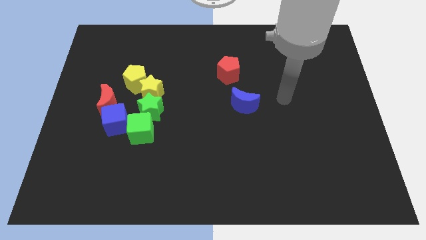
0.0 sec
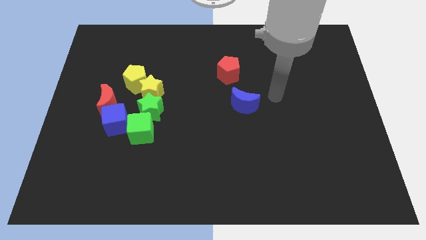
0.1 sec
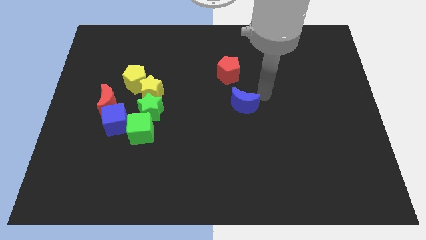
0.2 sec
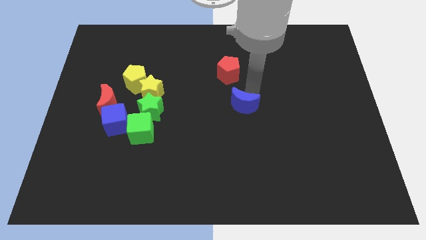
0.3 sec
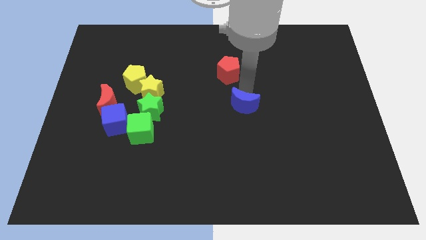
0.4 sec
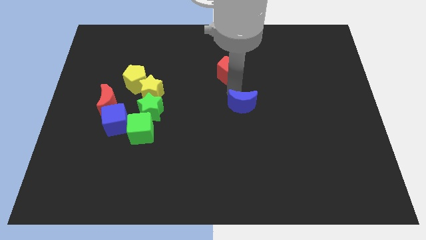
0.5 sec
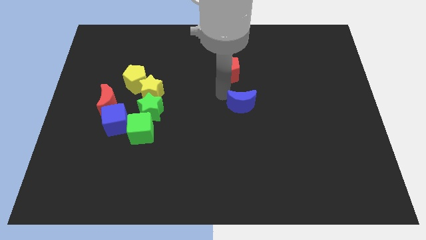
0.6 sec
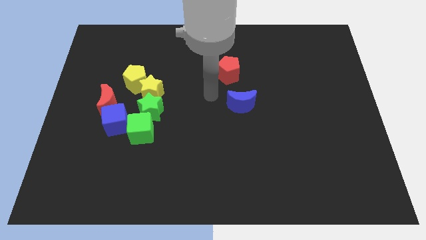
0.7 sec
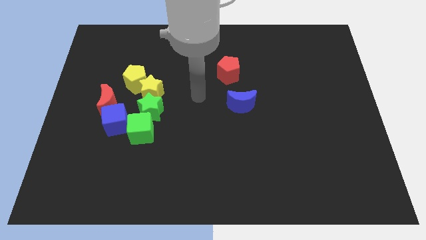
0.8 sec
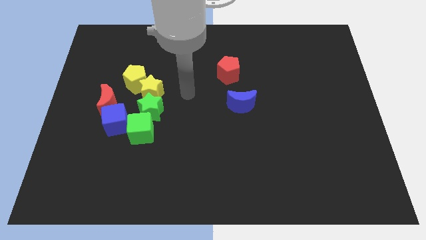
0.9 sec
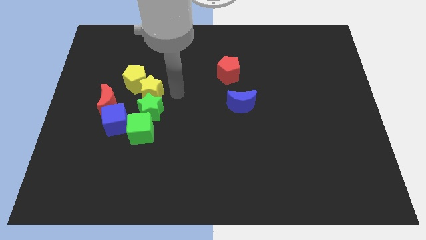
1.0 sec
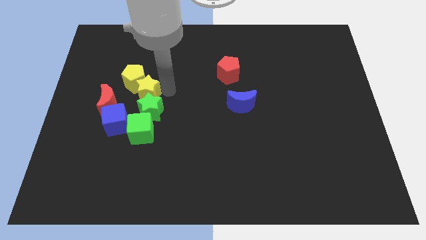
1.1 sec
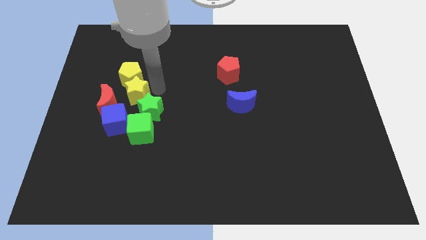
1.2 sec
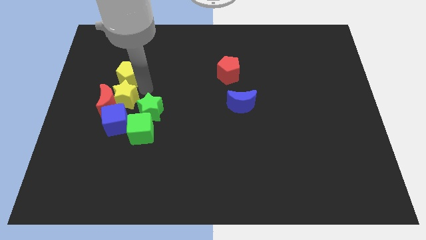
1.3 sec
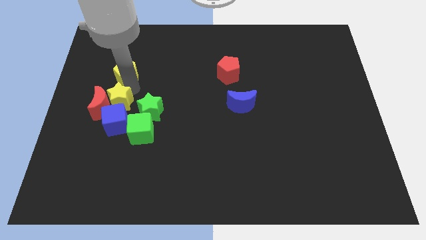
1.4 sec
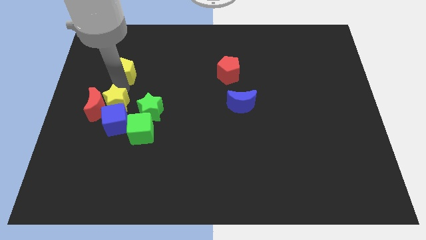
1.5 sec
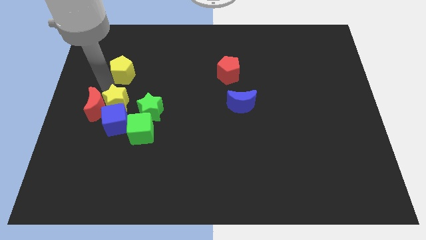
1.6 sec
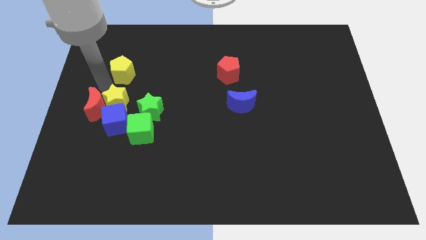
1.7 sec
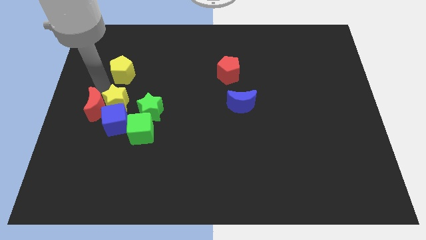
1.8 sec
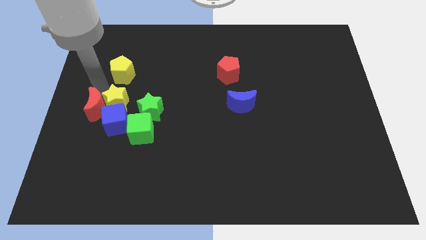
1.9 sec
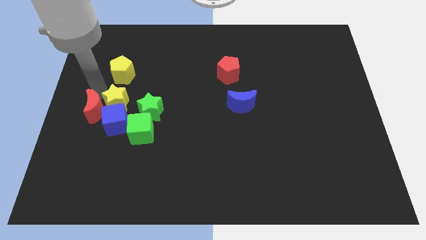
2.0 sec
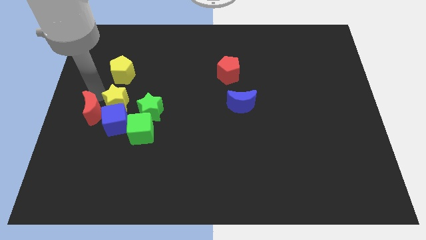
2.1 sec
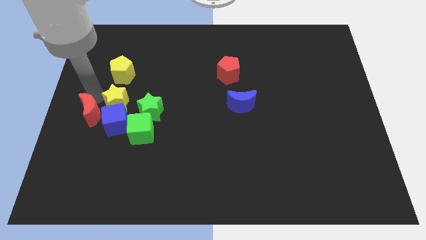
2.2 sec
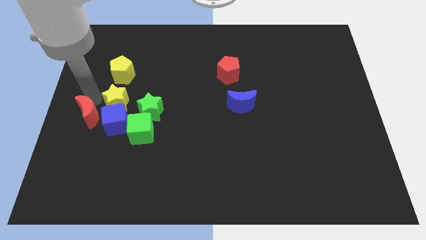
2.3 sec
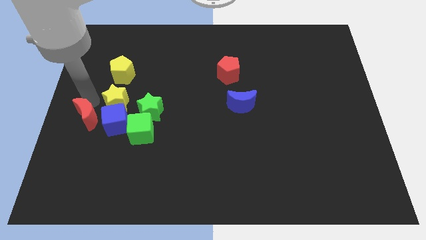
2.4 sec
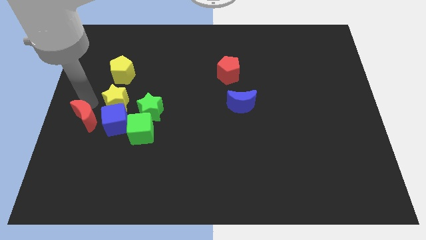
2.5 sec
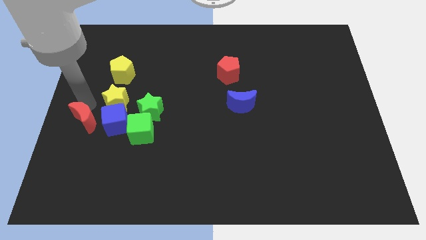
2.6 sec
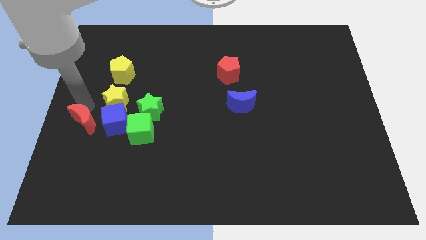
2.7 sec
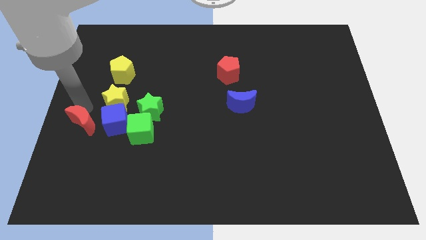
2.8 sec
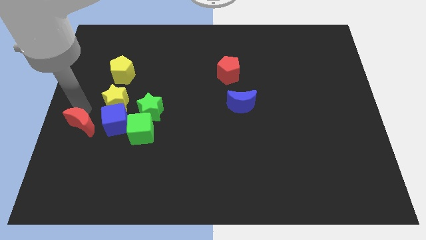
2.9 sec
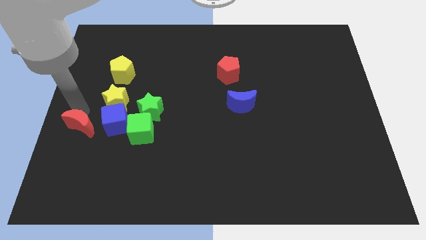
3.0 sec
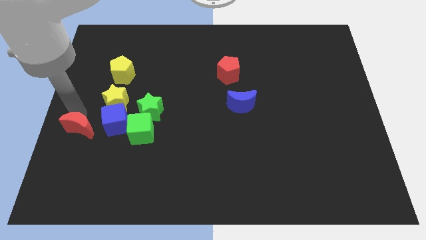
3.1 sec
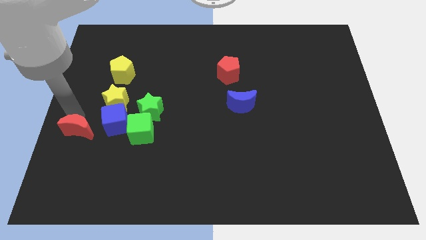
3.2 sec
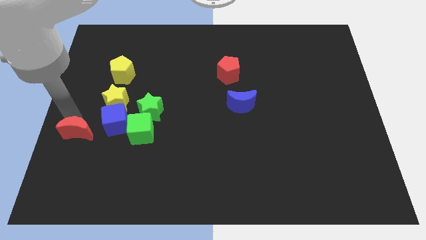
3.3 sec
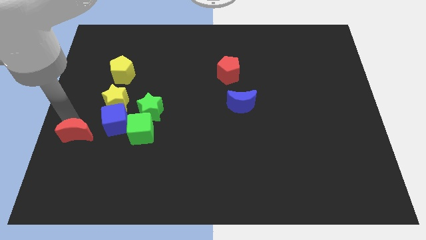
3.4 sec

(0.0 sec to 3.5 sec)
slightly move the red moon downwards

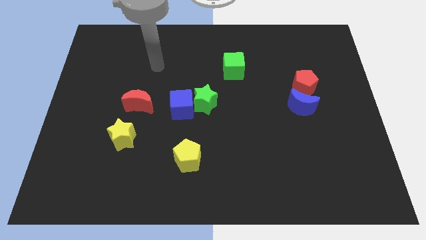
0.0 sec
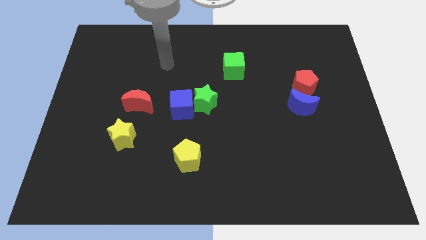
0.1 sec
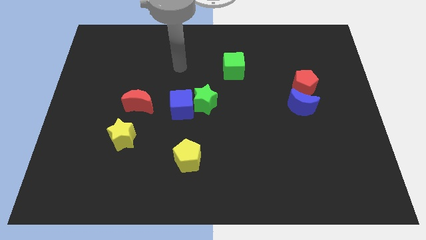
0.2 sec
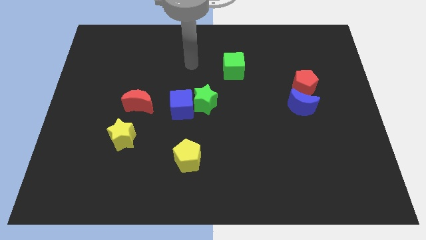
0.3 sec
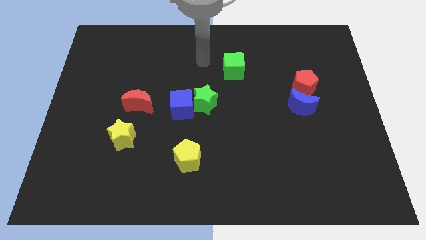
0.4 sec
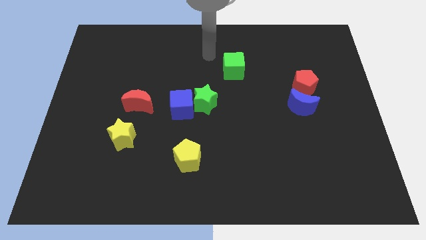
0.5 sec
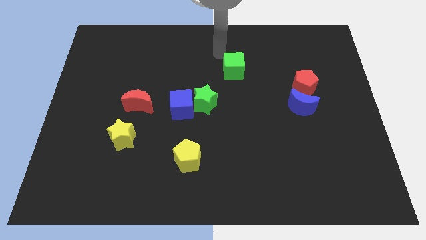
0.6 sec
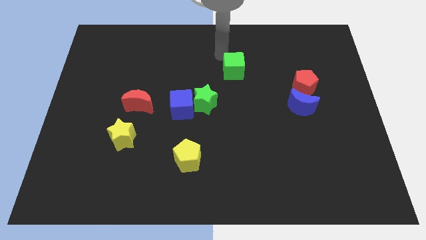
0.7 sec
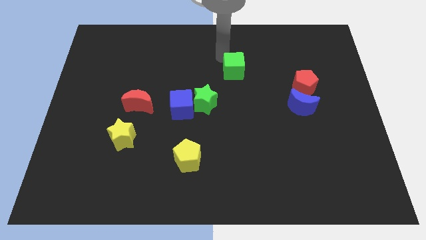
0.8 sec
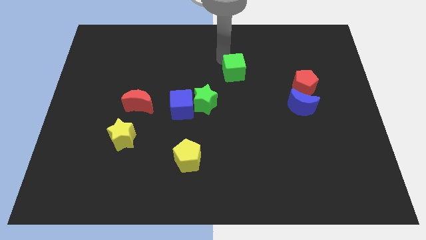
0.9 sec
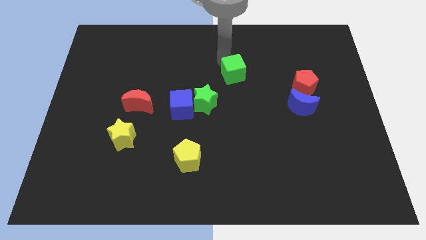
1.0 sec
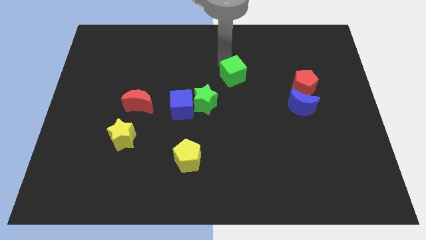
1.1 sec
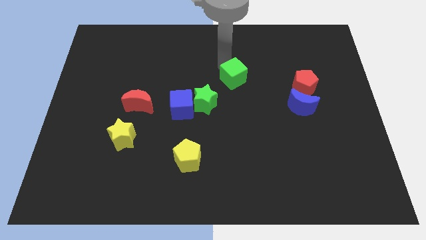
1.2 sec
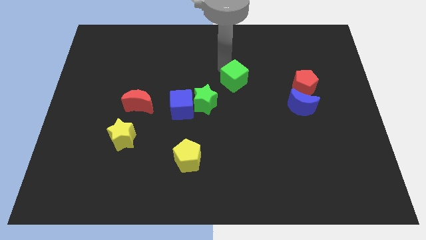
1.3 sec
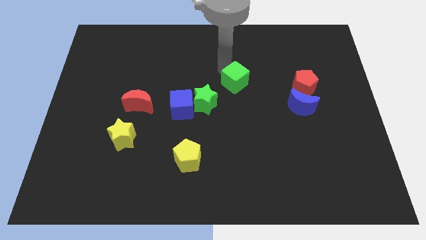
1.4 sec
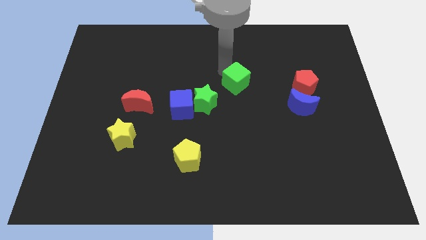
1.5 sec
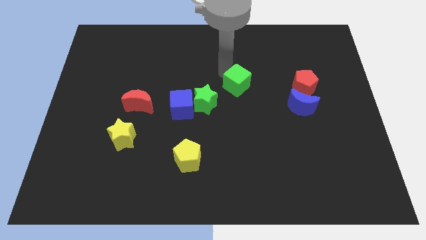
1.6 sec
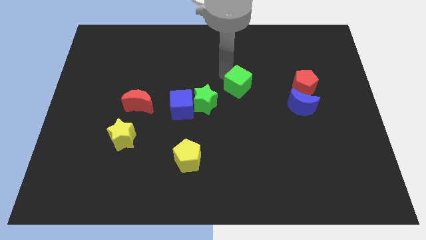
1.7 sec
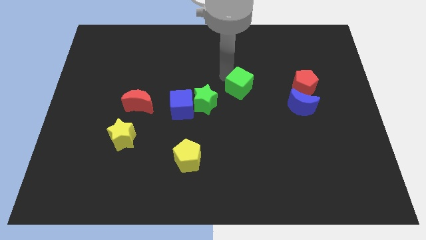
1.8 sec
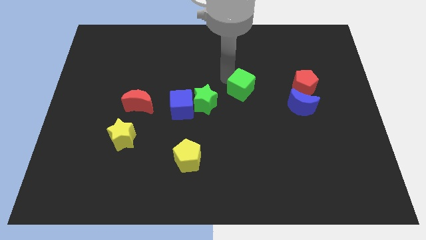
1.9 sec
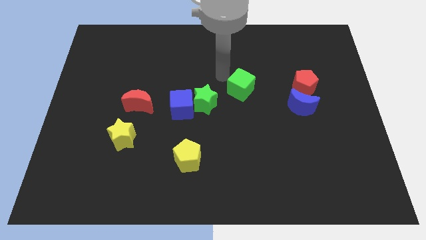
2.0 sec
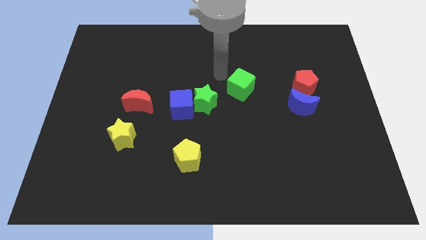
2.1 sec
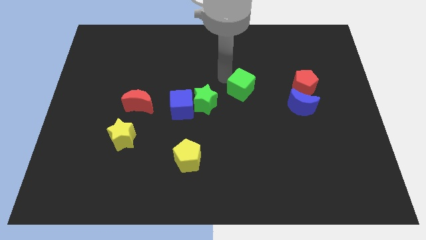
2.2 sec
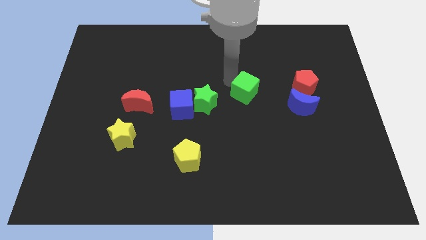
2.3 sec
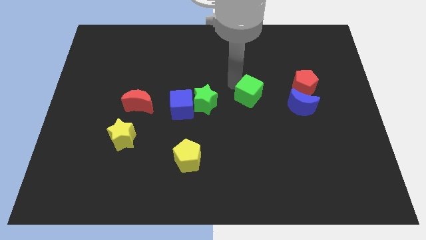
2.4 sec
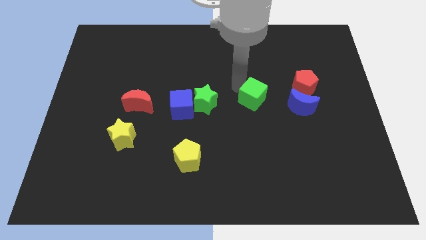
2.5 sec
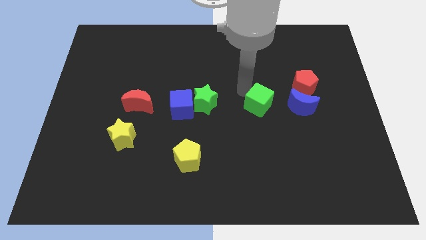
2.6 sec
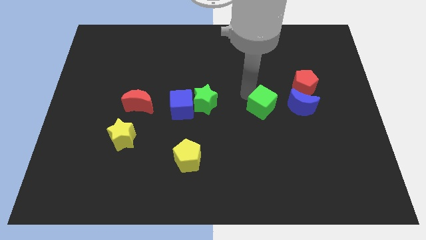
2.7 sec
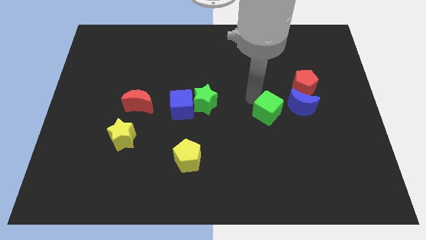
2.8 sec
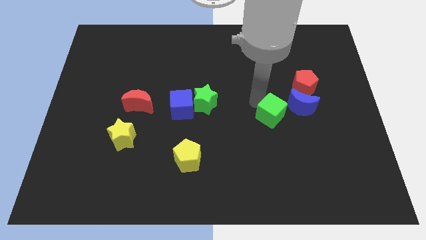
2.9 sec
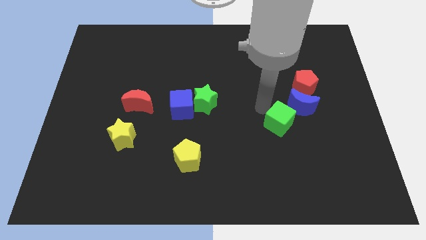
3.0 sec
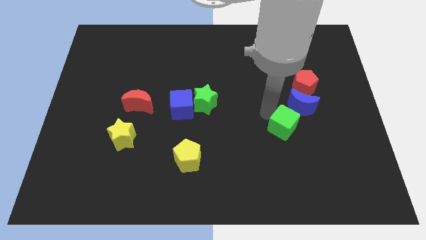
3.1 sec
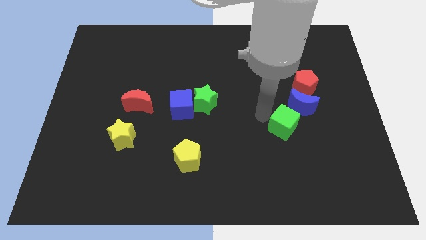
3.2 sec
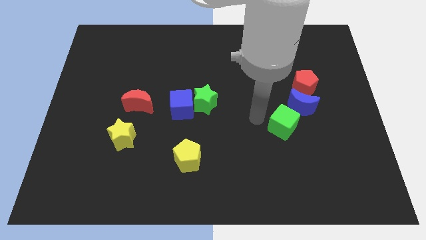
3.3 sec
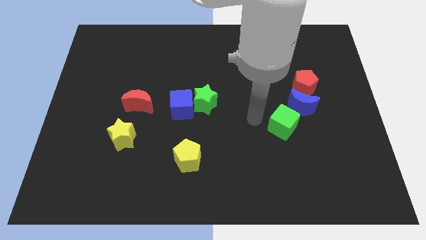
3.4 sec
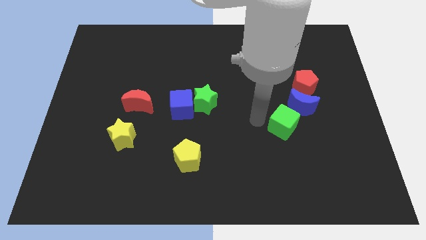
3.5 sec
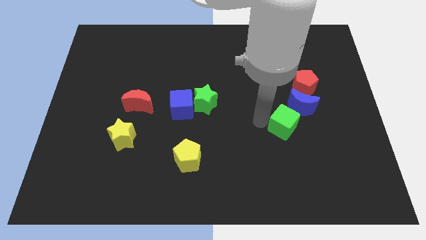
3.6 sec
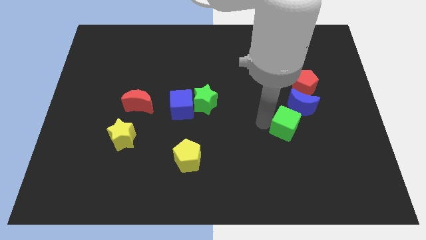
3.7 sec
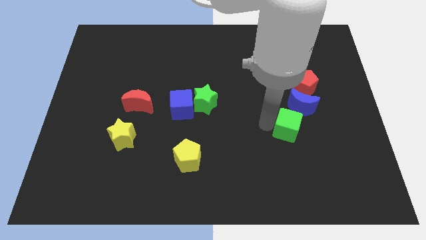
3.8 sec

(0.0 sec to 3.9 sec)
slide the green cube diagonally downwards and to the right

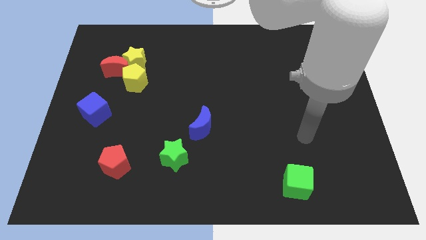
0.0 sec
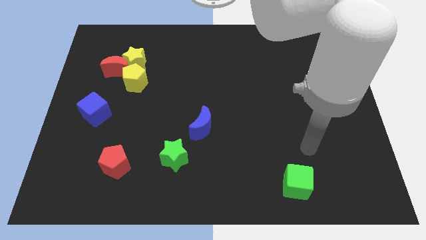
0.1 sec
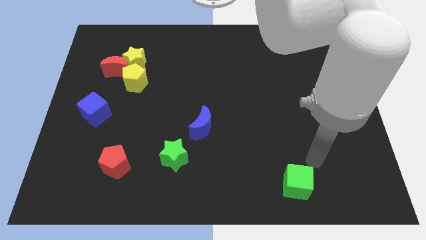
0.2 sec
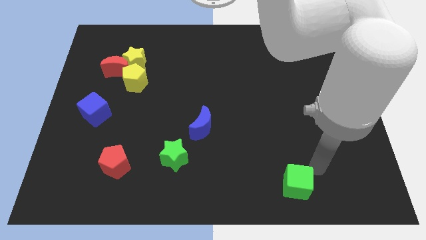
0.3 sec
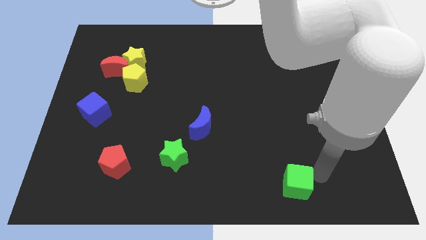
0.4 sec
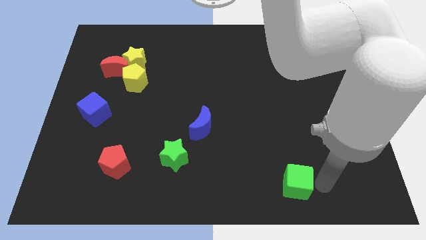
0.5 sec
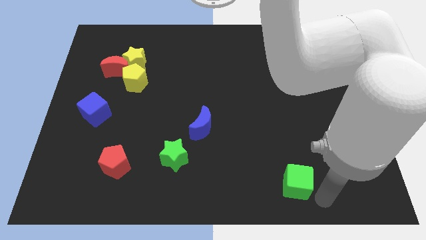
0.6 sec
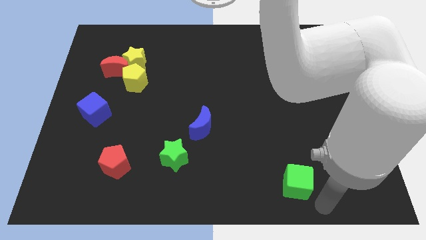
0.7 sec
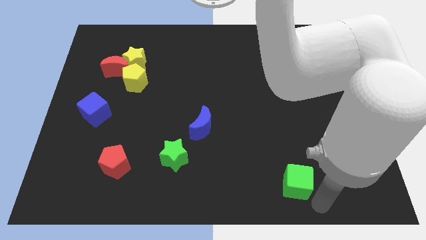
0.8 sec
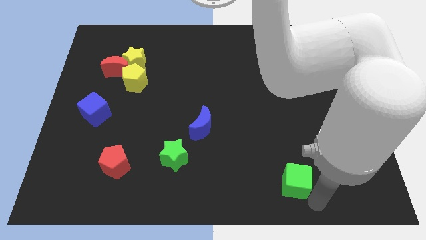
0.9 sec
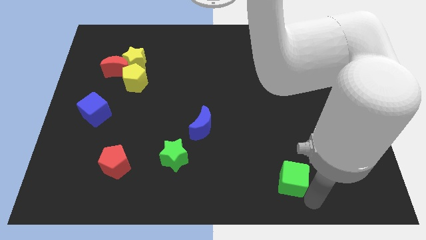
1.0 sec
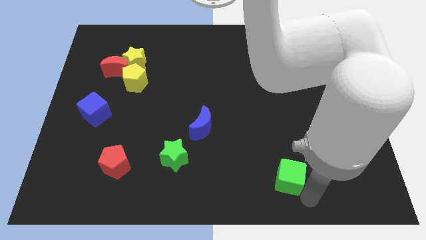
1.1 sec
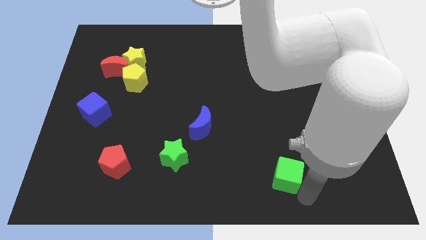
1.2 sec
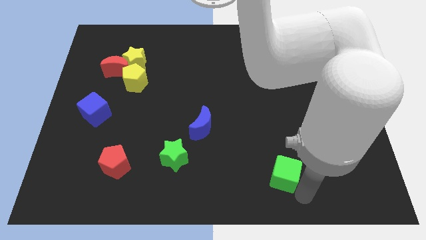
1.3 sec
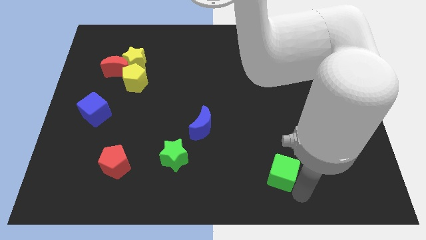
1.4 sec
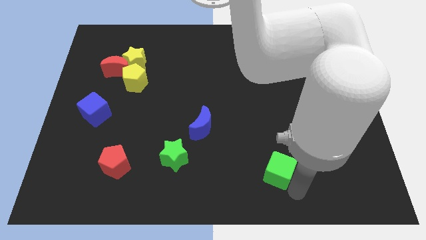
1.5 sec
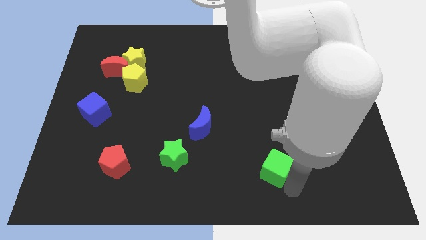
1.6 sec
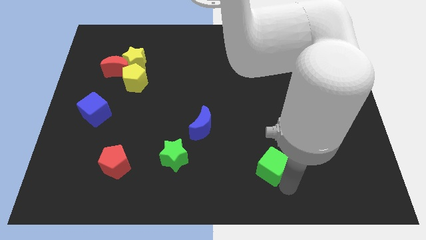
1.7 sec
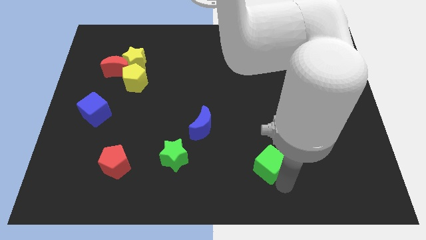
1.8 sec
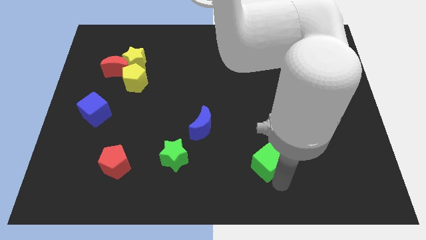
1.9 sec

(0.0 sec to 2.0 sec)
slightly slide the green cube up and to the left
